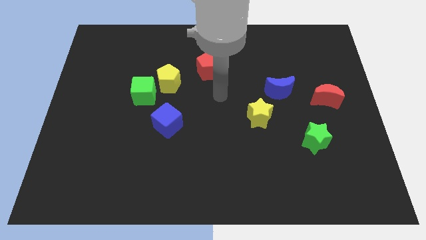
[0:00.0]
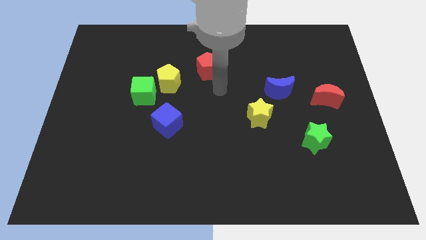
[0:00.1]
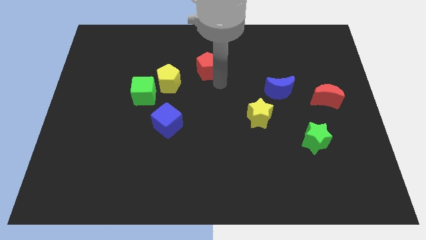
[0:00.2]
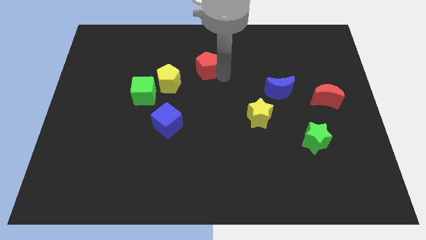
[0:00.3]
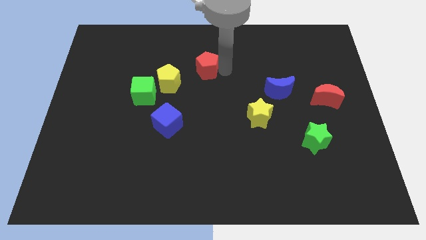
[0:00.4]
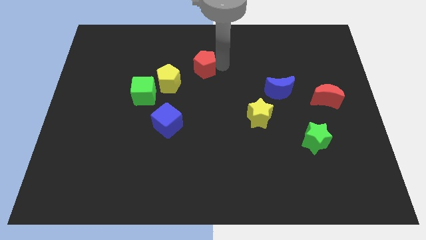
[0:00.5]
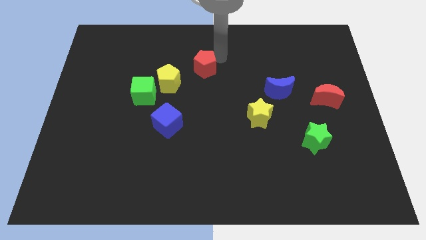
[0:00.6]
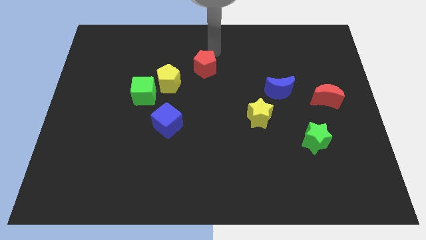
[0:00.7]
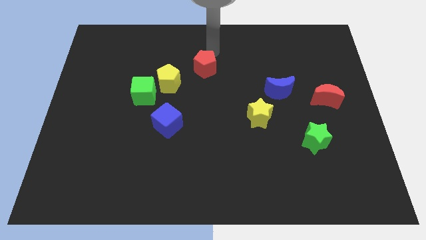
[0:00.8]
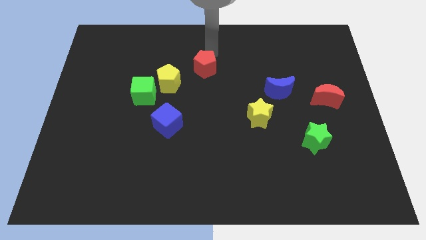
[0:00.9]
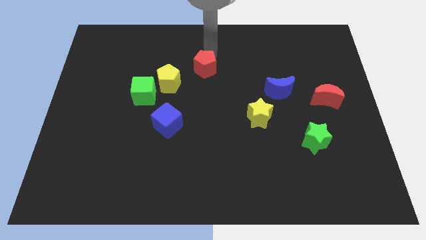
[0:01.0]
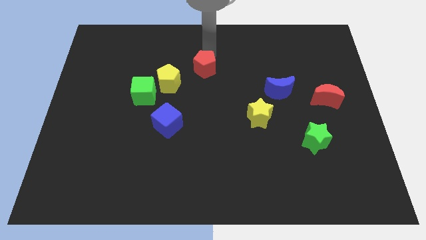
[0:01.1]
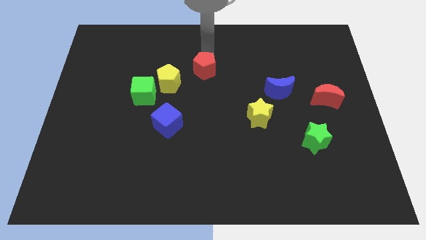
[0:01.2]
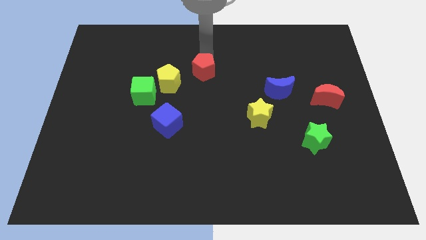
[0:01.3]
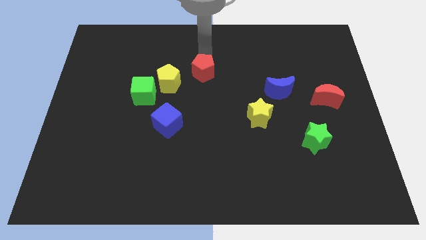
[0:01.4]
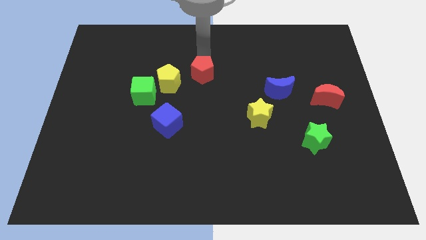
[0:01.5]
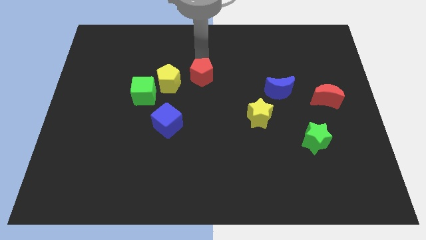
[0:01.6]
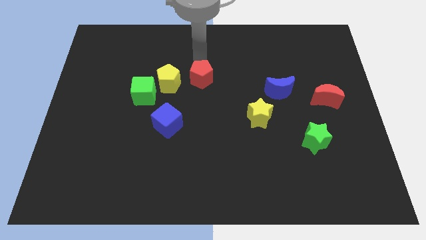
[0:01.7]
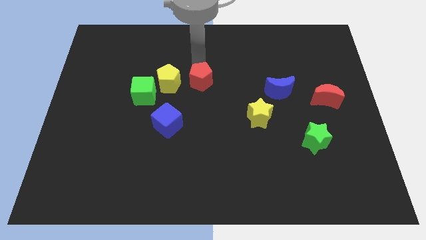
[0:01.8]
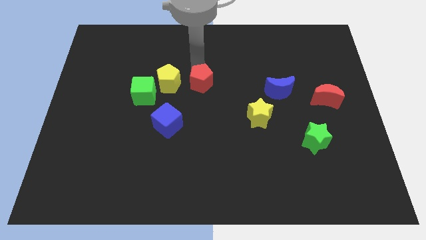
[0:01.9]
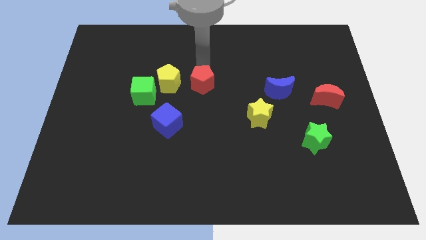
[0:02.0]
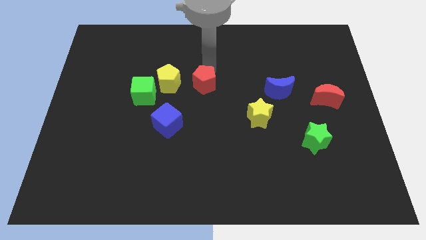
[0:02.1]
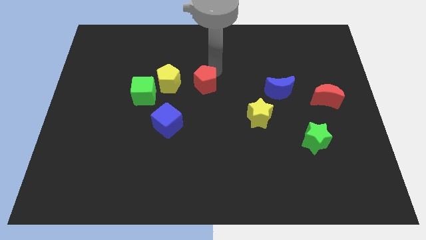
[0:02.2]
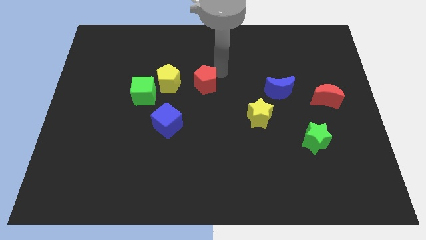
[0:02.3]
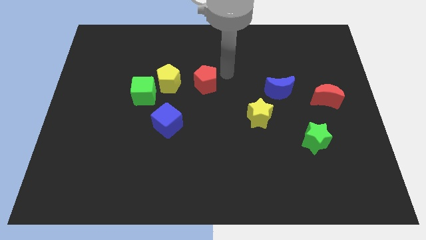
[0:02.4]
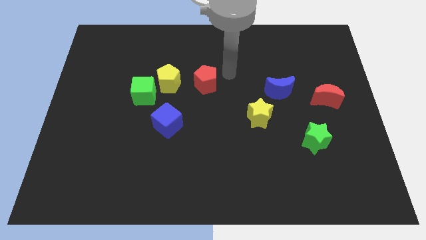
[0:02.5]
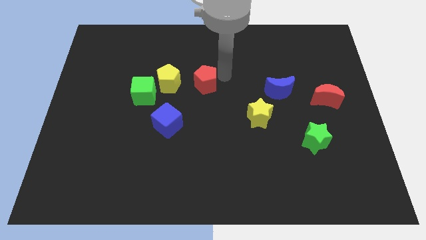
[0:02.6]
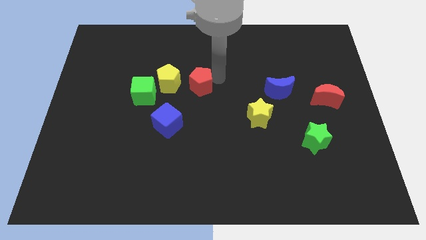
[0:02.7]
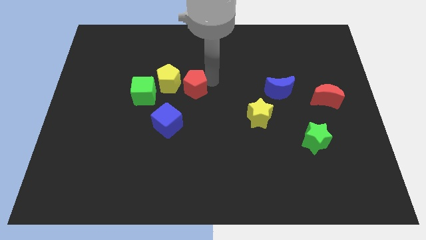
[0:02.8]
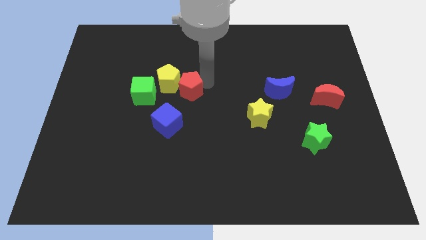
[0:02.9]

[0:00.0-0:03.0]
slide the red pentagon a little down and left diagonally

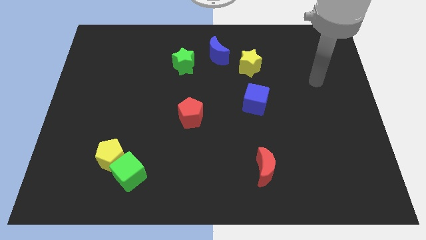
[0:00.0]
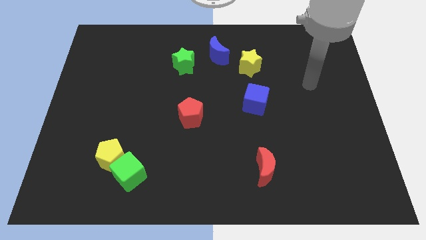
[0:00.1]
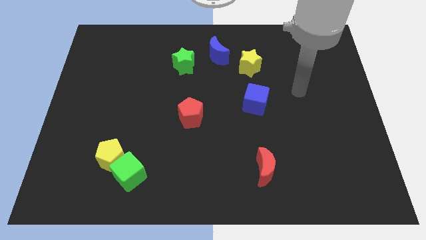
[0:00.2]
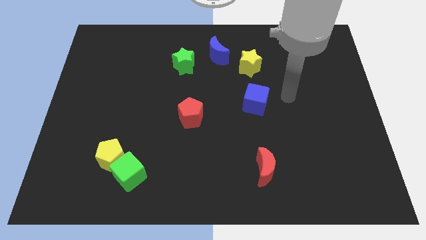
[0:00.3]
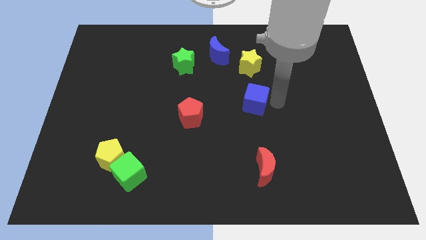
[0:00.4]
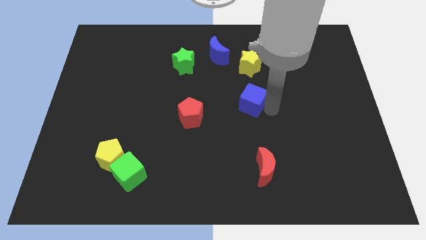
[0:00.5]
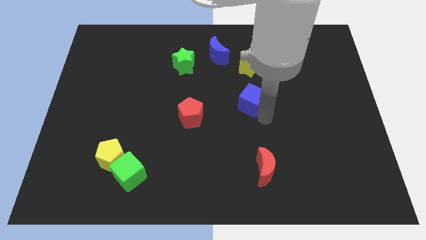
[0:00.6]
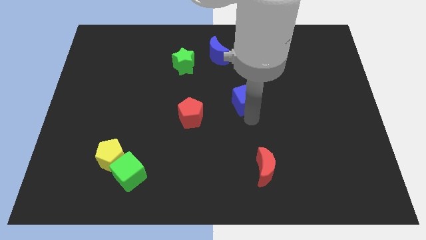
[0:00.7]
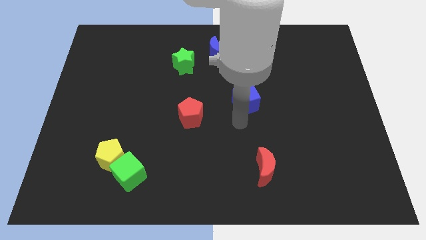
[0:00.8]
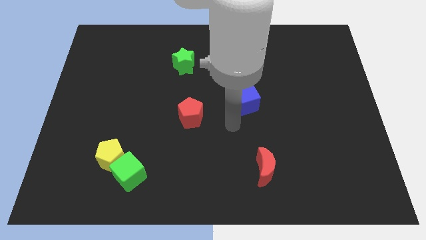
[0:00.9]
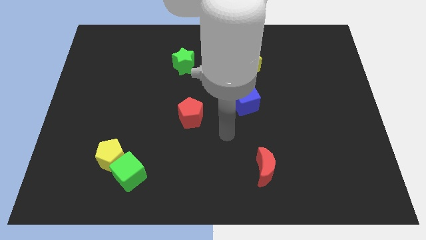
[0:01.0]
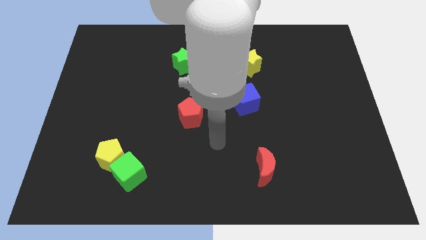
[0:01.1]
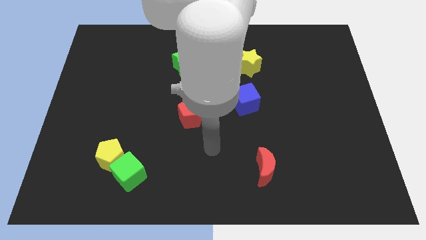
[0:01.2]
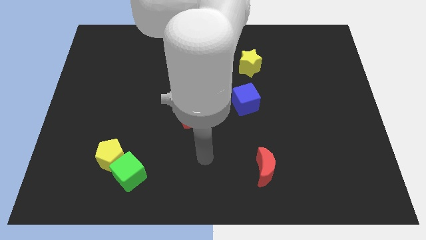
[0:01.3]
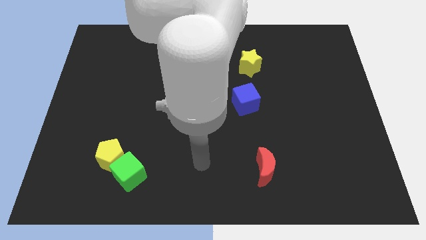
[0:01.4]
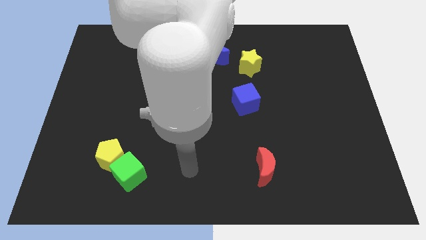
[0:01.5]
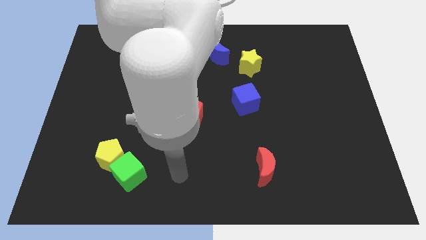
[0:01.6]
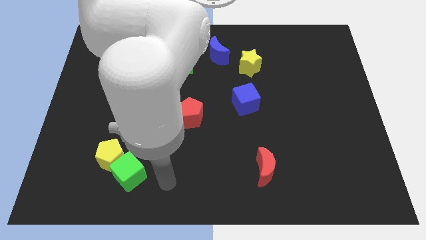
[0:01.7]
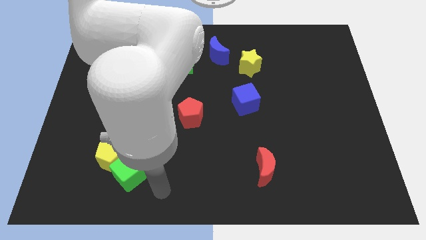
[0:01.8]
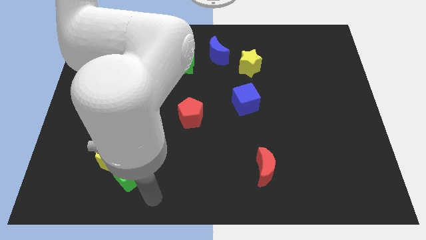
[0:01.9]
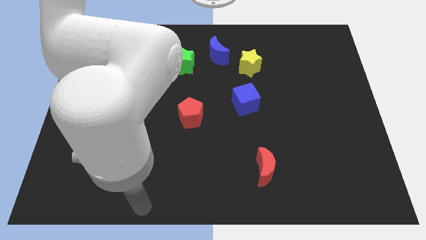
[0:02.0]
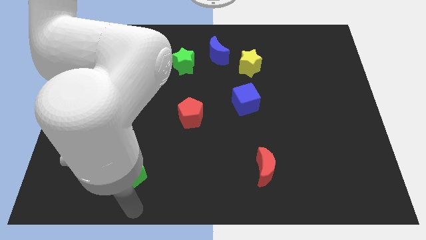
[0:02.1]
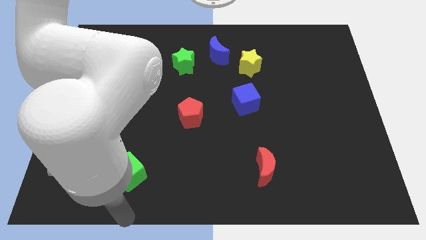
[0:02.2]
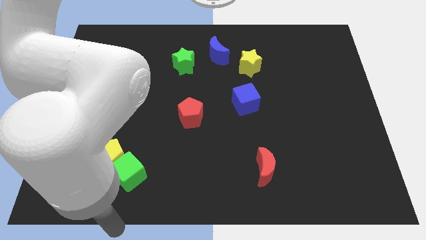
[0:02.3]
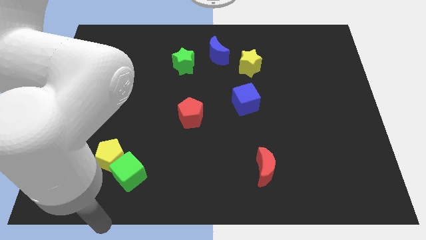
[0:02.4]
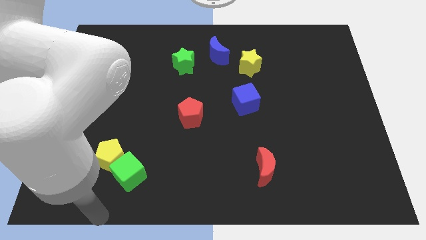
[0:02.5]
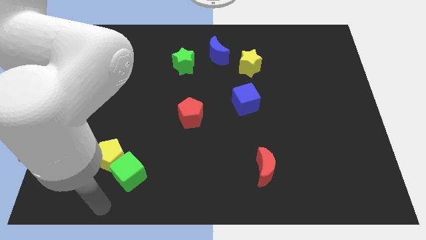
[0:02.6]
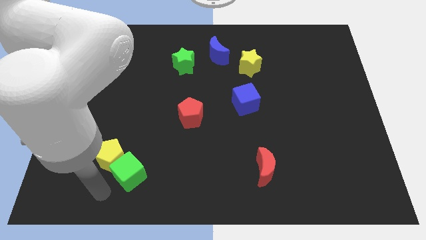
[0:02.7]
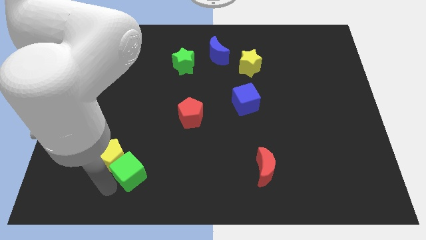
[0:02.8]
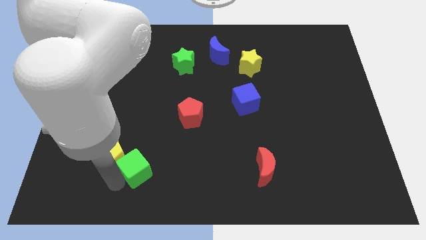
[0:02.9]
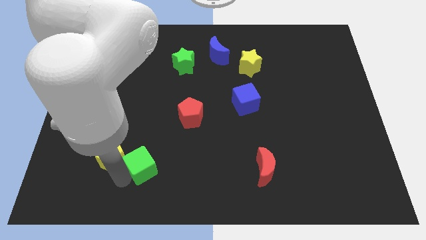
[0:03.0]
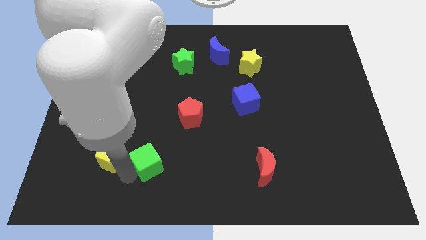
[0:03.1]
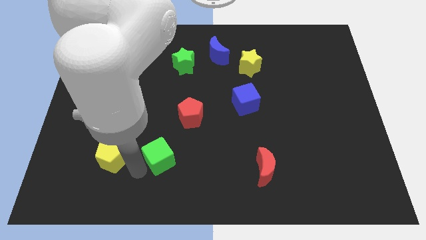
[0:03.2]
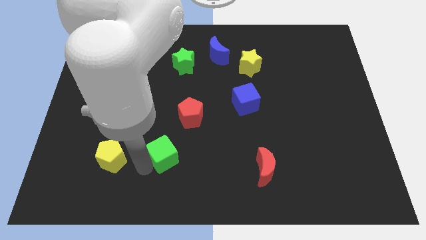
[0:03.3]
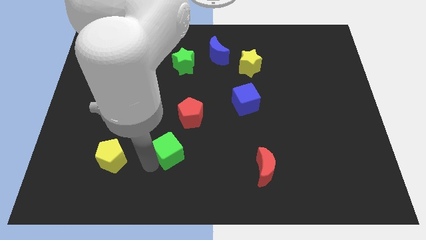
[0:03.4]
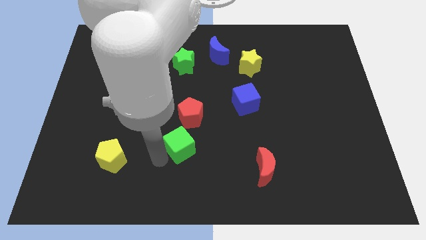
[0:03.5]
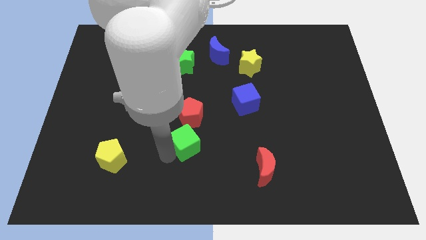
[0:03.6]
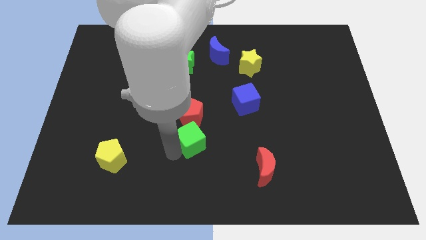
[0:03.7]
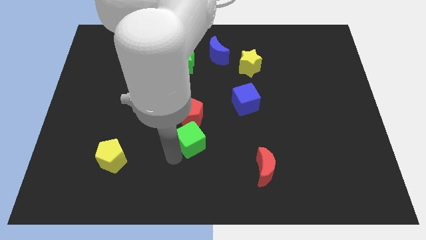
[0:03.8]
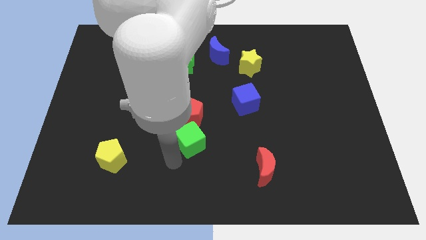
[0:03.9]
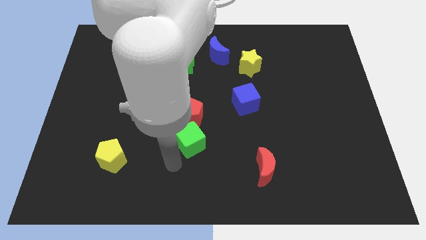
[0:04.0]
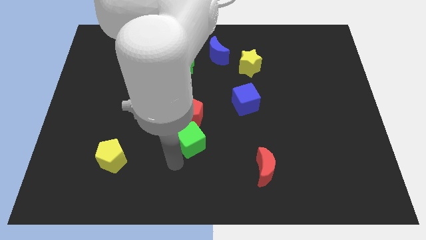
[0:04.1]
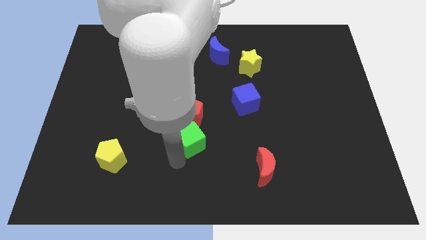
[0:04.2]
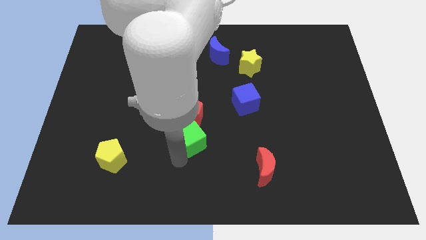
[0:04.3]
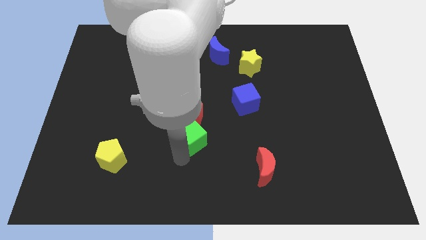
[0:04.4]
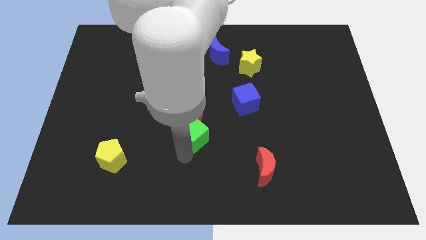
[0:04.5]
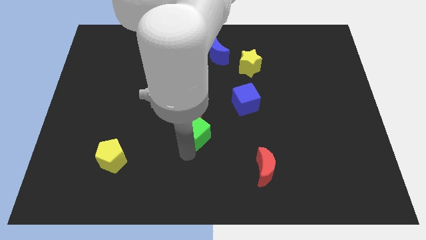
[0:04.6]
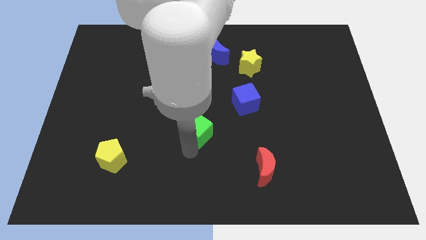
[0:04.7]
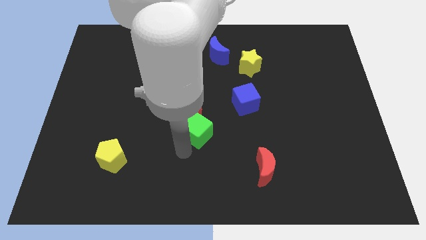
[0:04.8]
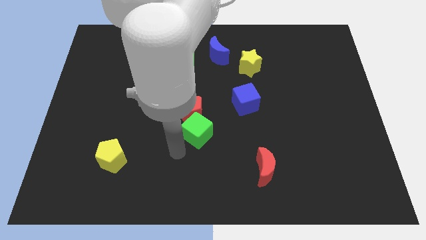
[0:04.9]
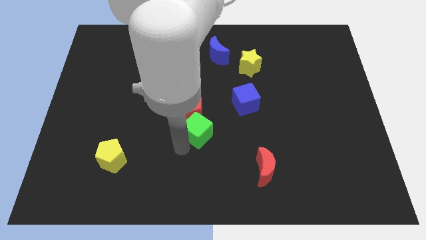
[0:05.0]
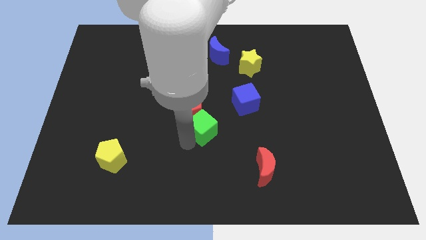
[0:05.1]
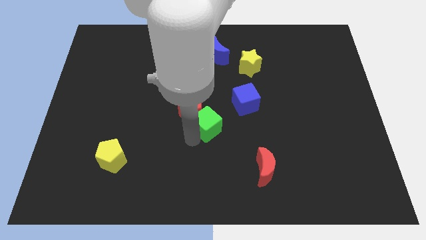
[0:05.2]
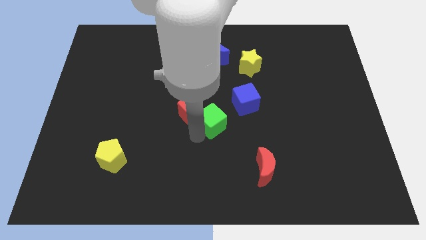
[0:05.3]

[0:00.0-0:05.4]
push the green cube up and right diagonally
